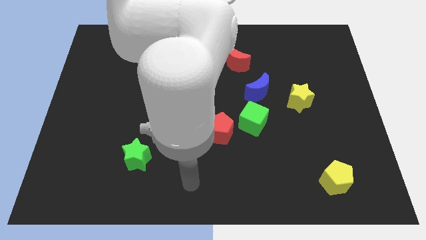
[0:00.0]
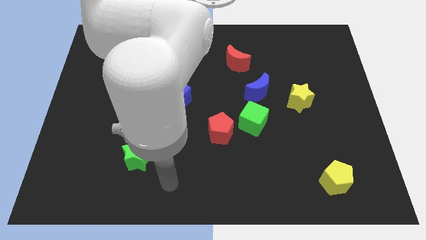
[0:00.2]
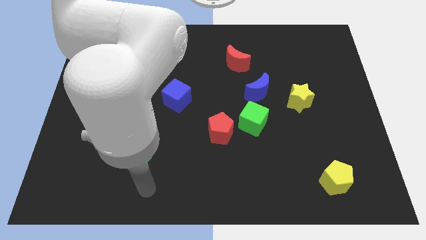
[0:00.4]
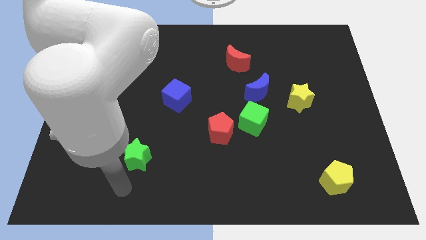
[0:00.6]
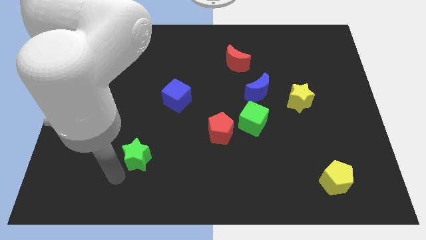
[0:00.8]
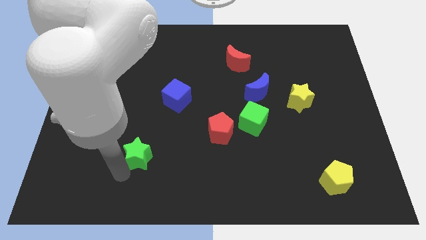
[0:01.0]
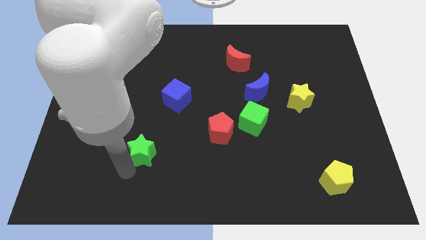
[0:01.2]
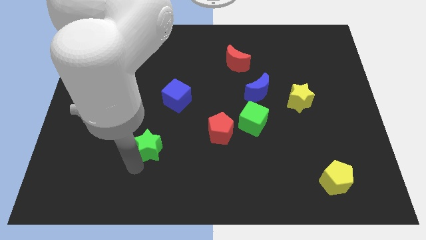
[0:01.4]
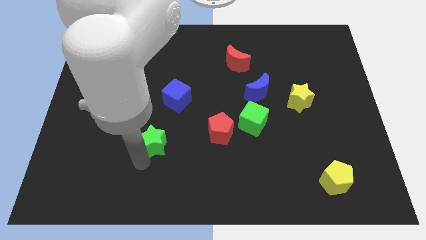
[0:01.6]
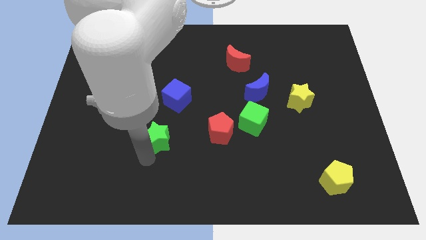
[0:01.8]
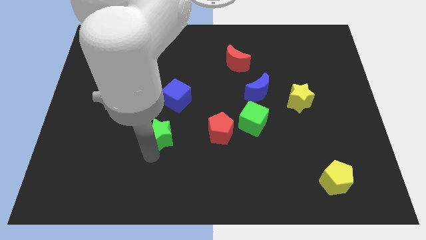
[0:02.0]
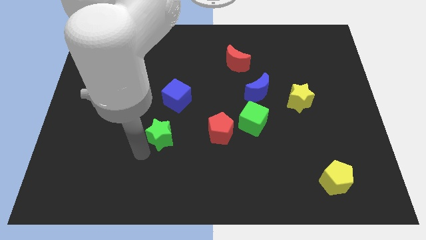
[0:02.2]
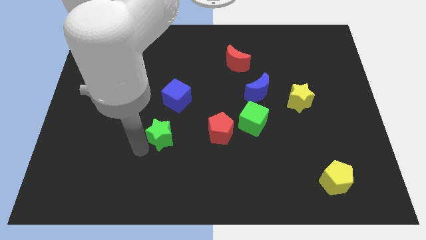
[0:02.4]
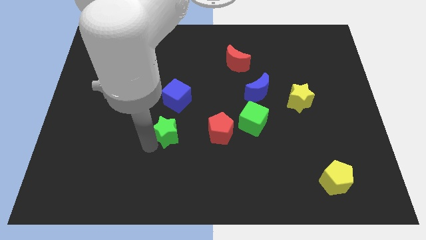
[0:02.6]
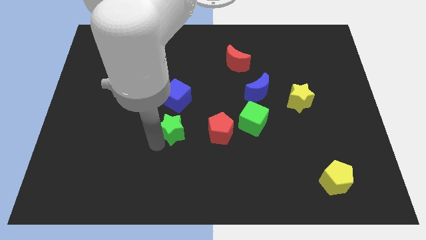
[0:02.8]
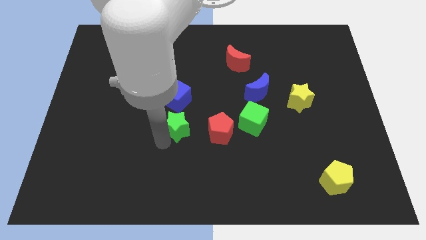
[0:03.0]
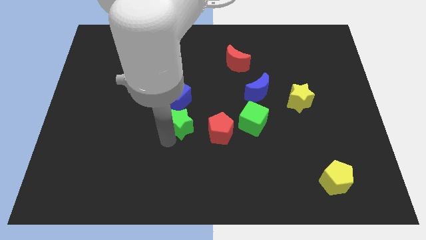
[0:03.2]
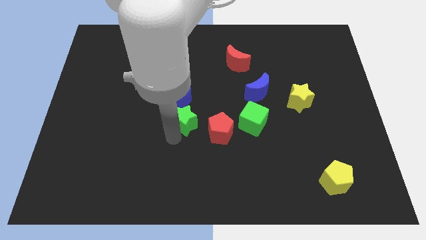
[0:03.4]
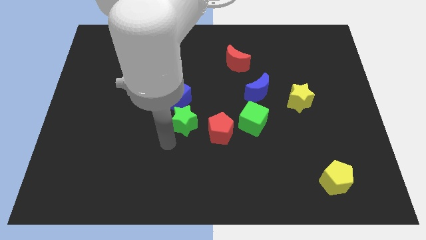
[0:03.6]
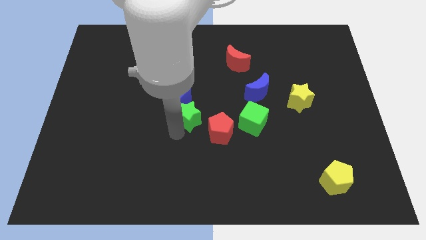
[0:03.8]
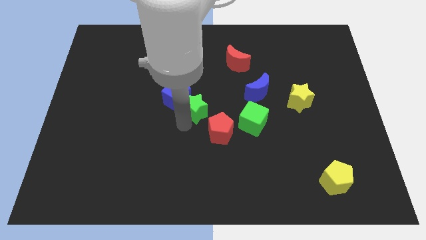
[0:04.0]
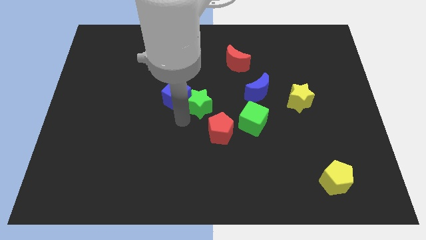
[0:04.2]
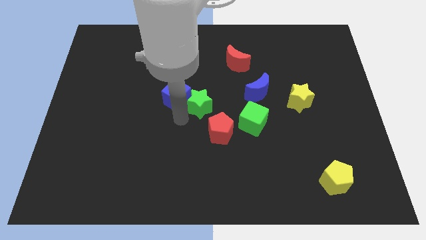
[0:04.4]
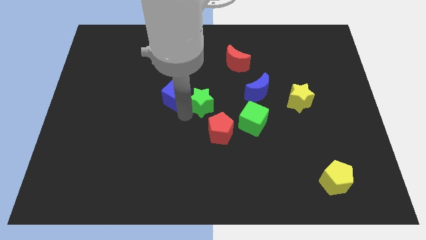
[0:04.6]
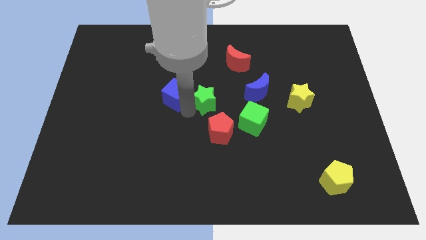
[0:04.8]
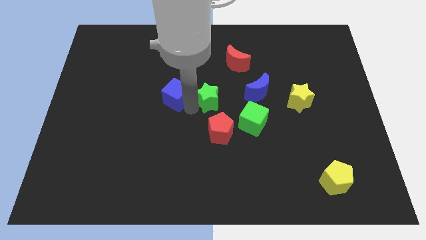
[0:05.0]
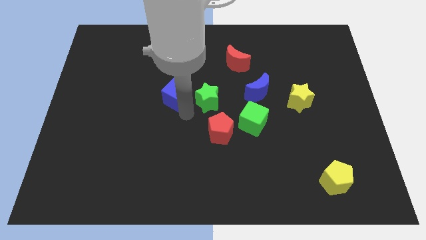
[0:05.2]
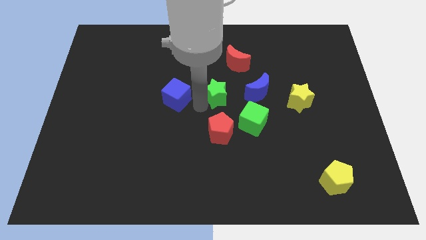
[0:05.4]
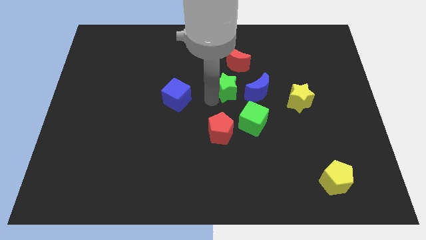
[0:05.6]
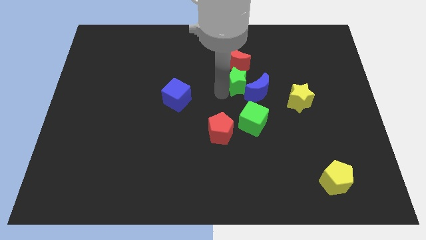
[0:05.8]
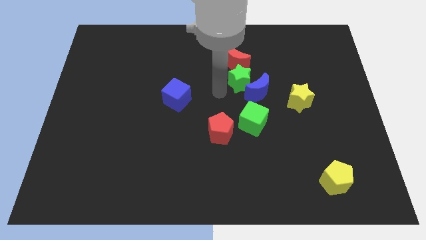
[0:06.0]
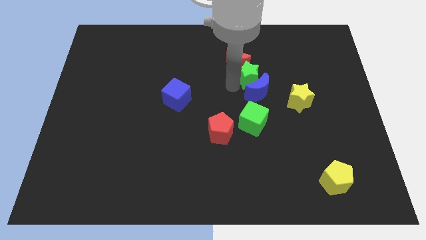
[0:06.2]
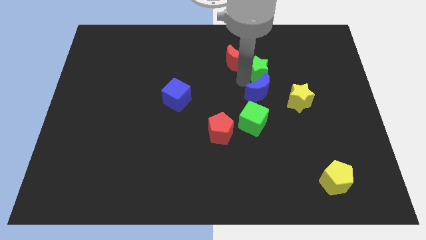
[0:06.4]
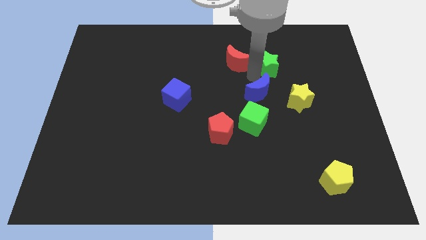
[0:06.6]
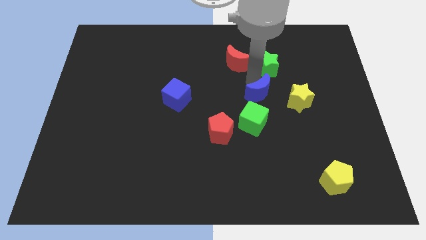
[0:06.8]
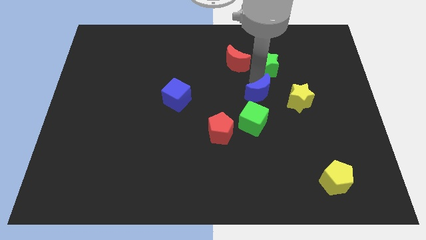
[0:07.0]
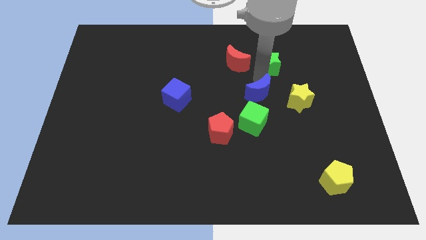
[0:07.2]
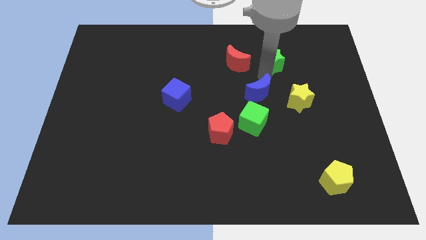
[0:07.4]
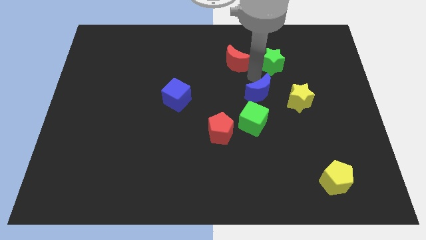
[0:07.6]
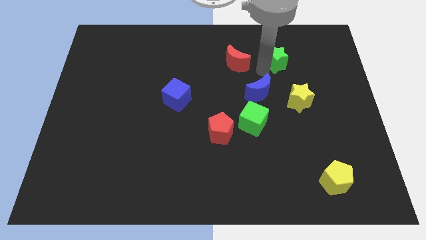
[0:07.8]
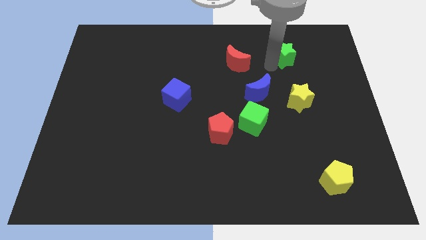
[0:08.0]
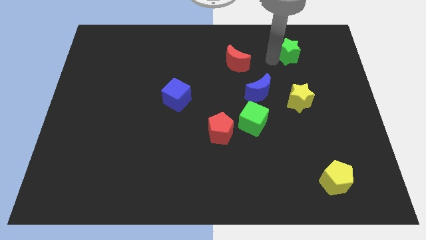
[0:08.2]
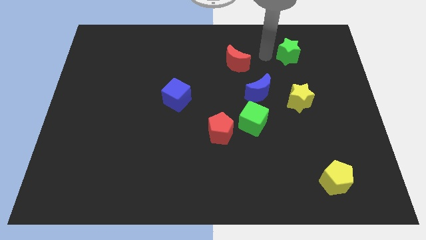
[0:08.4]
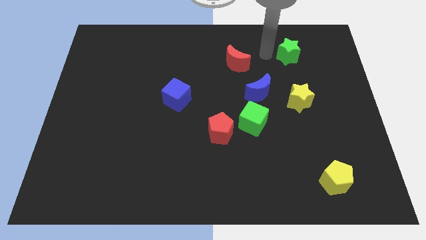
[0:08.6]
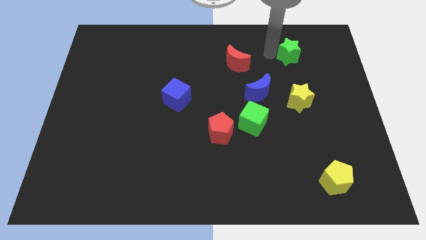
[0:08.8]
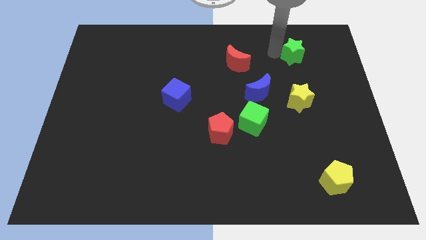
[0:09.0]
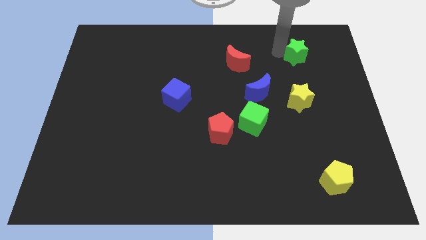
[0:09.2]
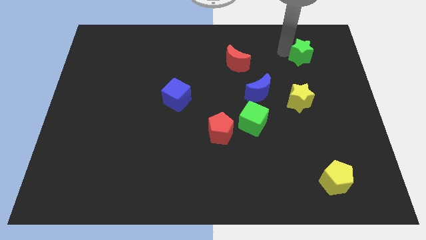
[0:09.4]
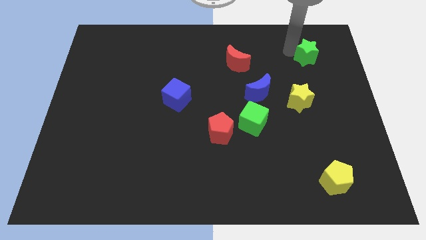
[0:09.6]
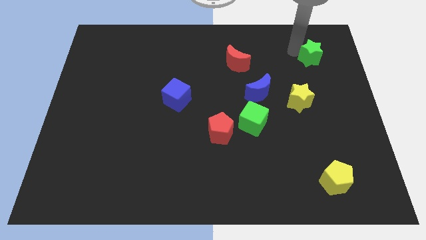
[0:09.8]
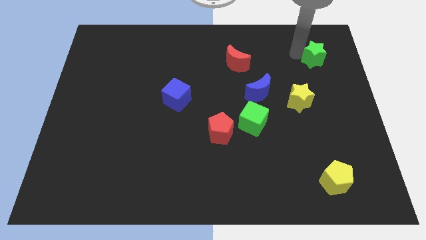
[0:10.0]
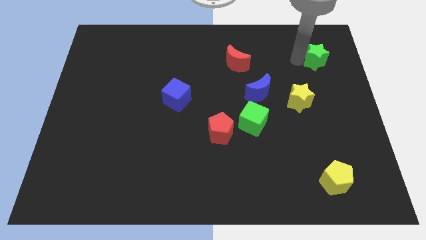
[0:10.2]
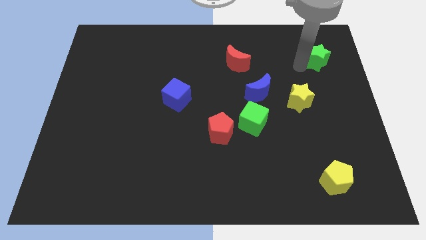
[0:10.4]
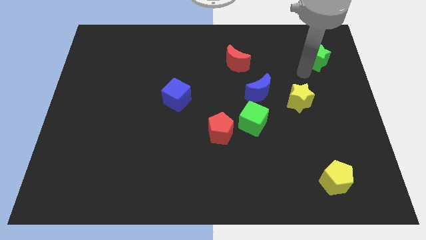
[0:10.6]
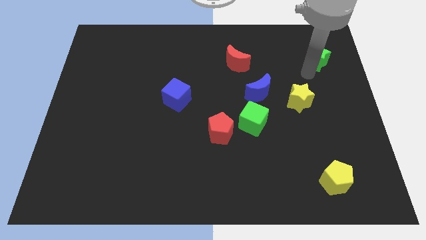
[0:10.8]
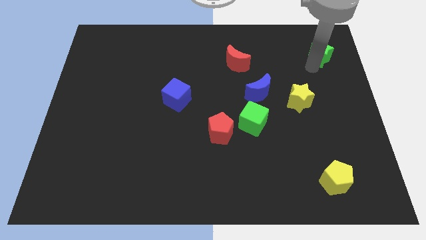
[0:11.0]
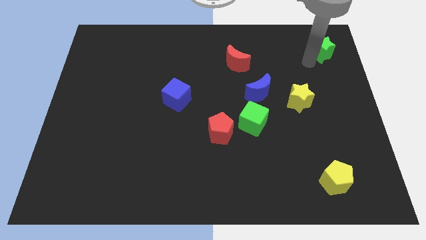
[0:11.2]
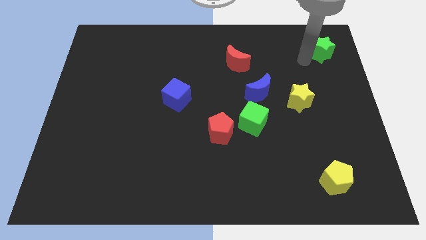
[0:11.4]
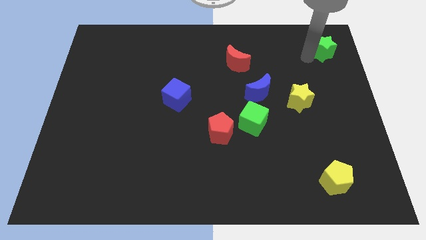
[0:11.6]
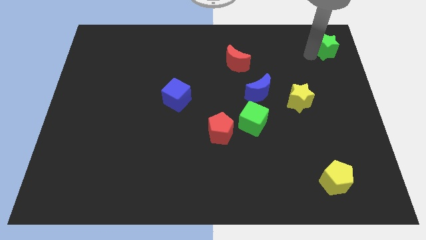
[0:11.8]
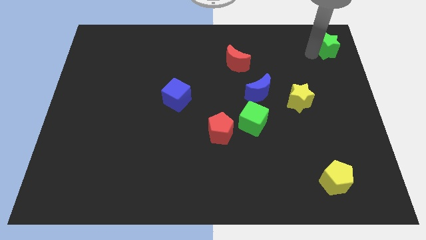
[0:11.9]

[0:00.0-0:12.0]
put the green star to the top right corner

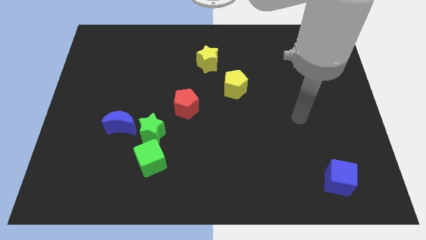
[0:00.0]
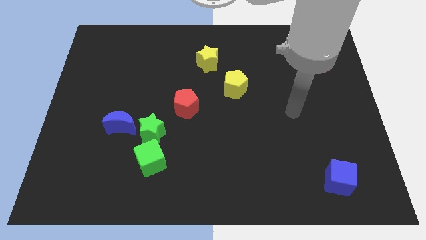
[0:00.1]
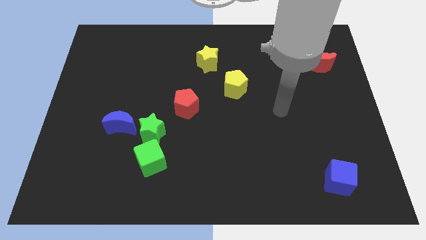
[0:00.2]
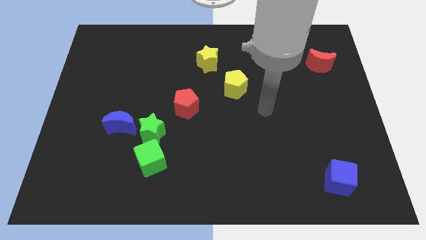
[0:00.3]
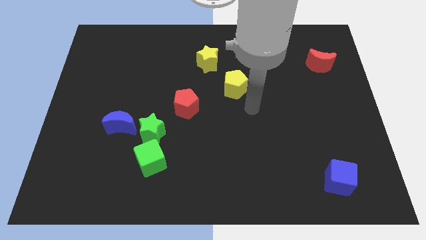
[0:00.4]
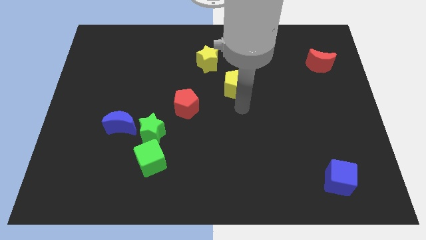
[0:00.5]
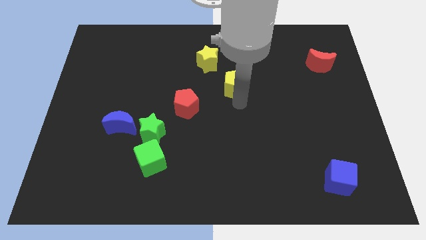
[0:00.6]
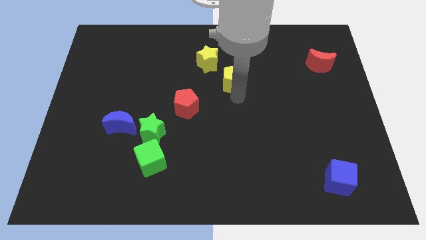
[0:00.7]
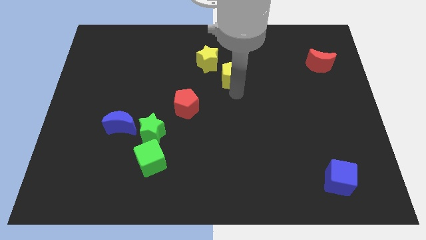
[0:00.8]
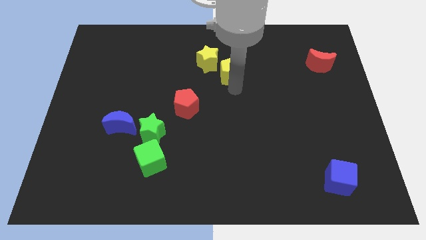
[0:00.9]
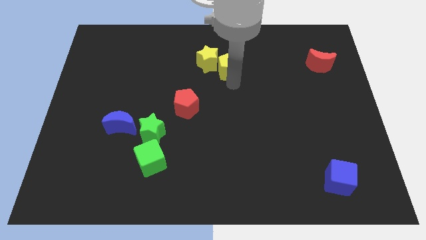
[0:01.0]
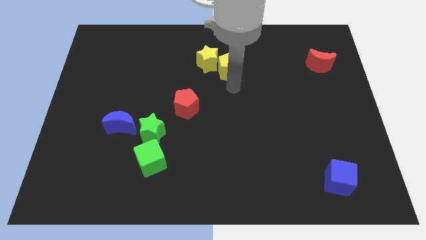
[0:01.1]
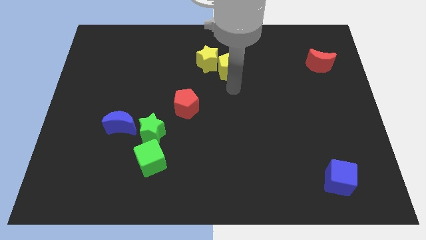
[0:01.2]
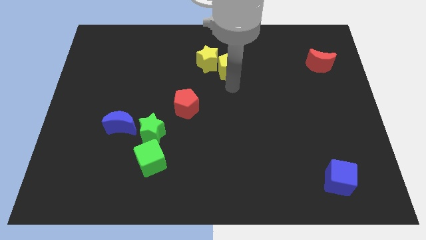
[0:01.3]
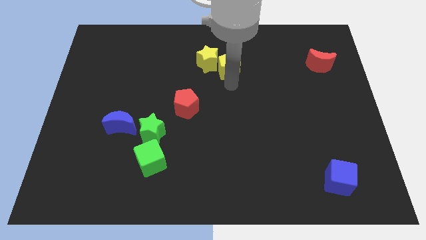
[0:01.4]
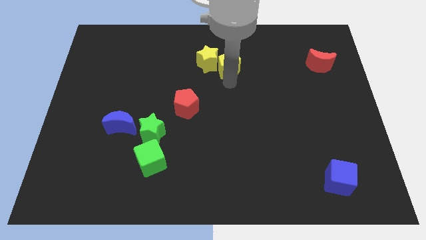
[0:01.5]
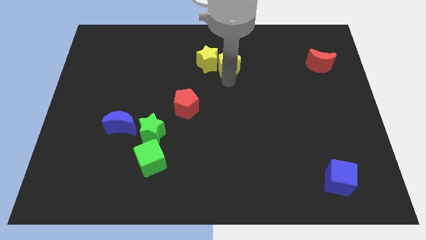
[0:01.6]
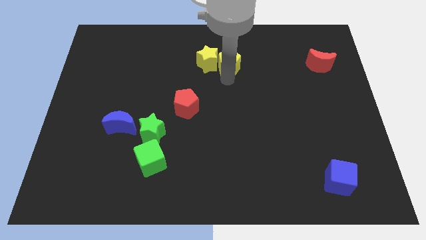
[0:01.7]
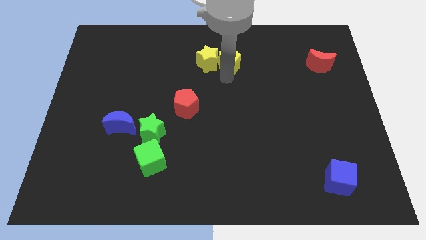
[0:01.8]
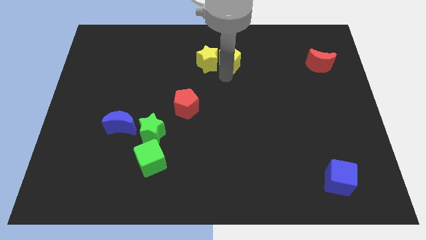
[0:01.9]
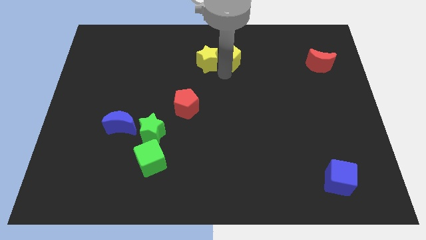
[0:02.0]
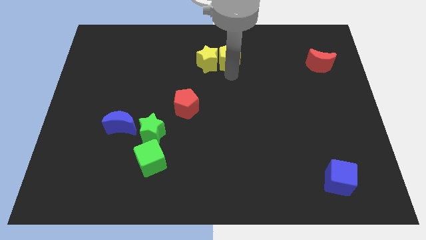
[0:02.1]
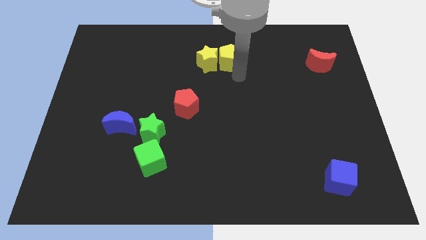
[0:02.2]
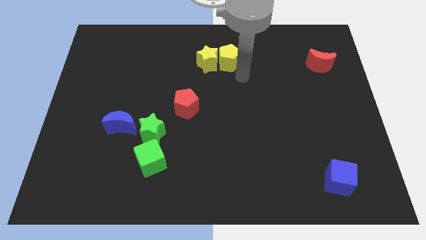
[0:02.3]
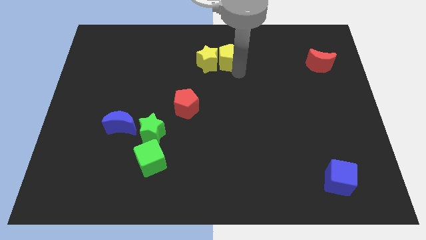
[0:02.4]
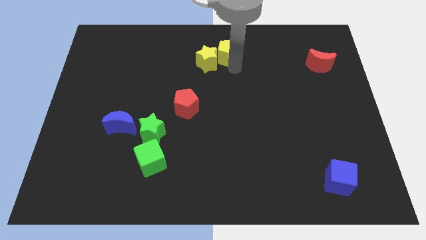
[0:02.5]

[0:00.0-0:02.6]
put the yellow pentagon to the top
